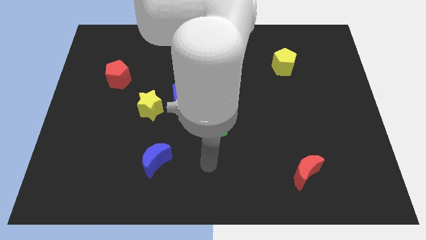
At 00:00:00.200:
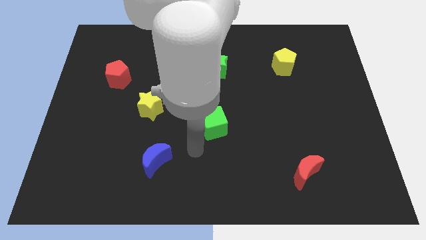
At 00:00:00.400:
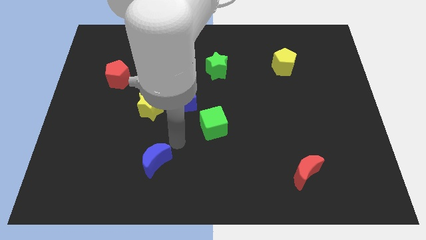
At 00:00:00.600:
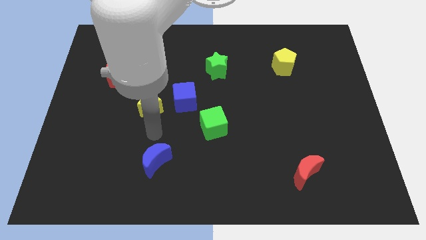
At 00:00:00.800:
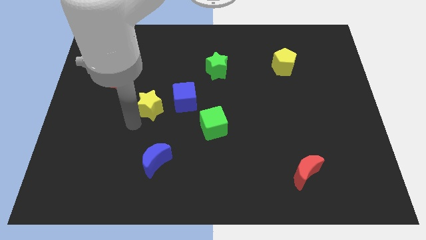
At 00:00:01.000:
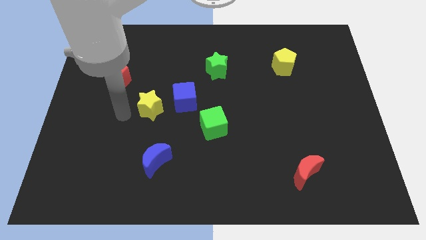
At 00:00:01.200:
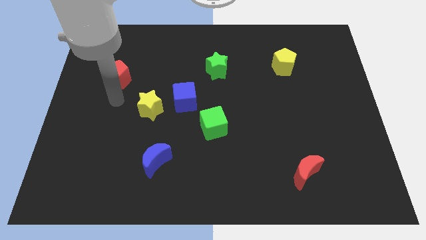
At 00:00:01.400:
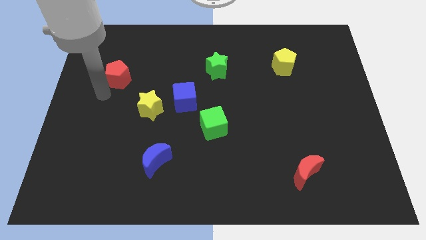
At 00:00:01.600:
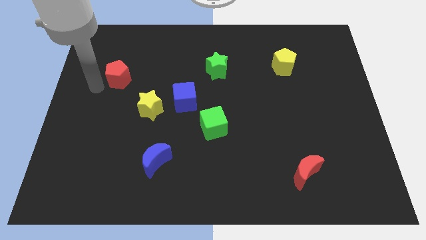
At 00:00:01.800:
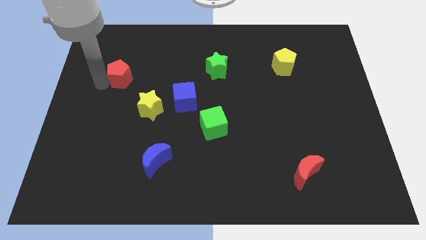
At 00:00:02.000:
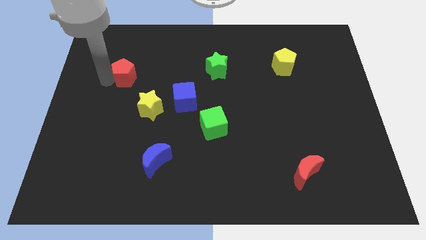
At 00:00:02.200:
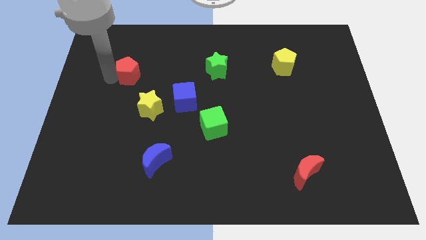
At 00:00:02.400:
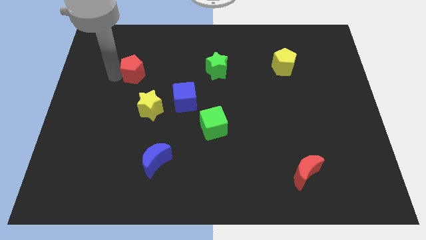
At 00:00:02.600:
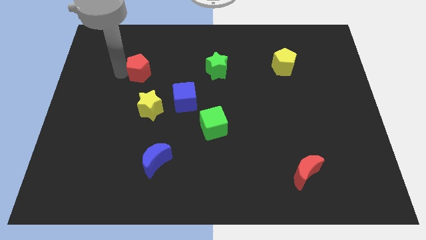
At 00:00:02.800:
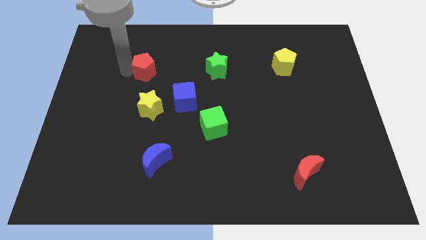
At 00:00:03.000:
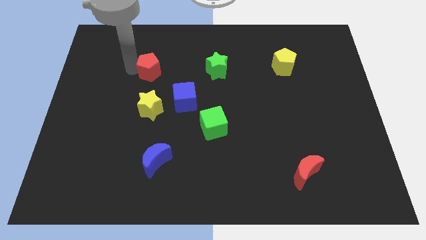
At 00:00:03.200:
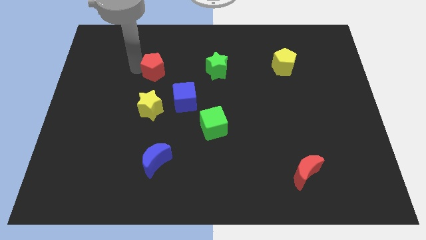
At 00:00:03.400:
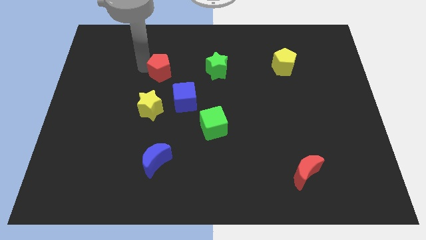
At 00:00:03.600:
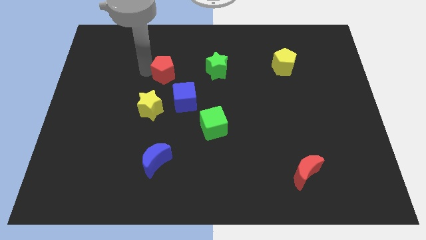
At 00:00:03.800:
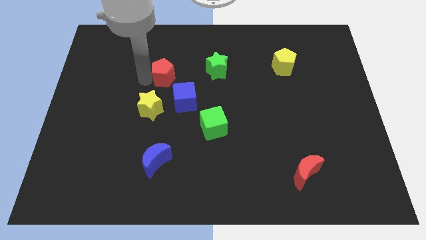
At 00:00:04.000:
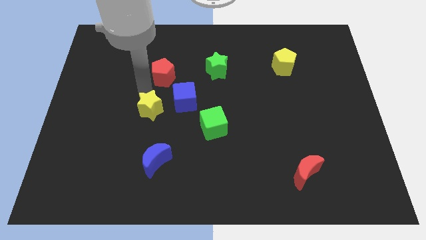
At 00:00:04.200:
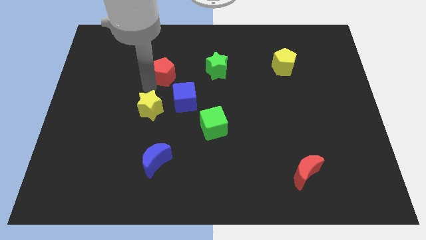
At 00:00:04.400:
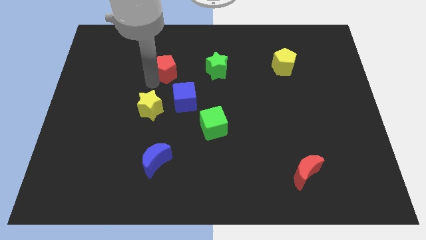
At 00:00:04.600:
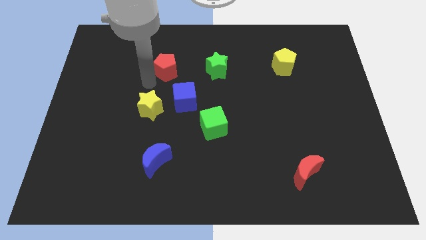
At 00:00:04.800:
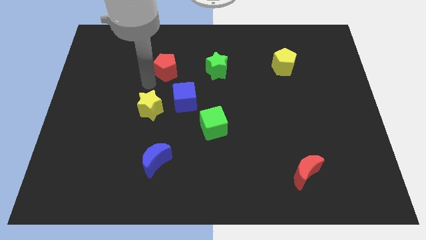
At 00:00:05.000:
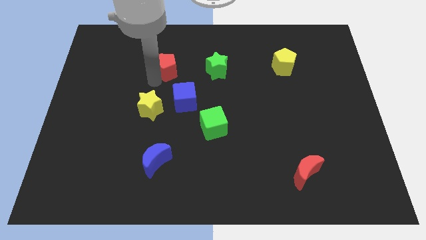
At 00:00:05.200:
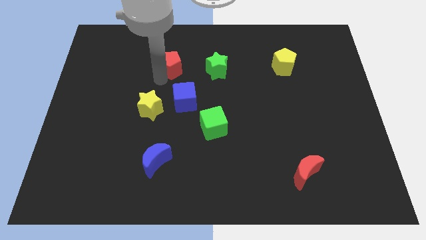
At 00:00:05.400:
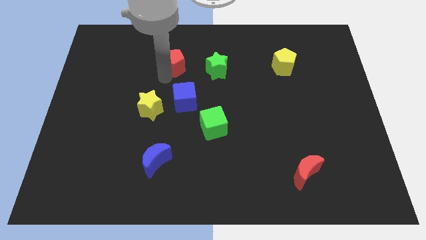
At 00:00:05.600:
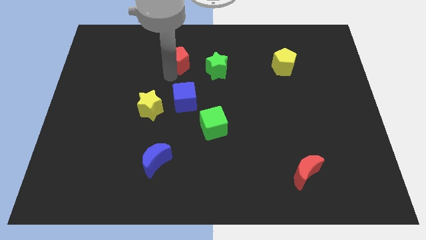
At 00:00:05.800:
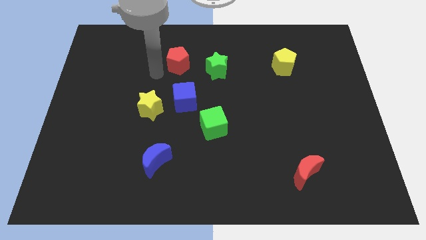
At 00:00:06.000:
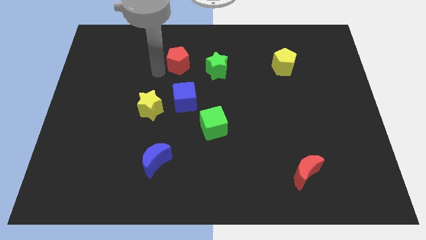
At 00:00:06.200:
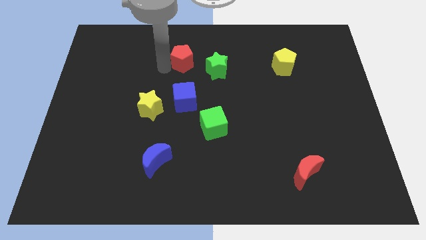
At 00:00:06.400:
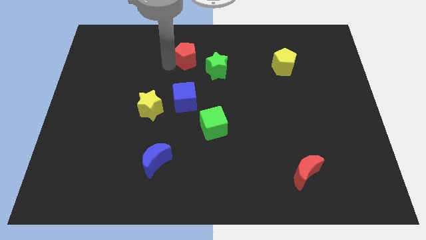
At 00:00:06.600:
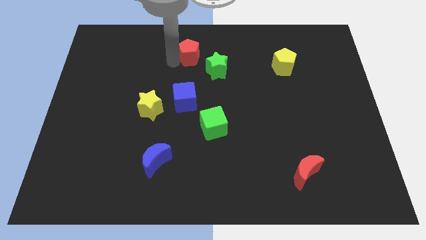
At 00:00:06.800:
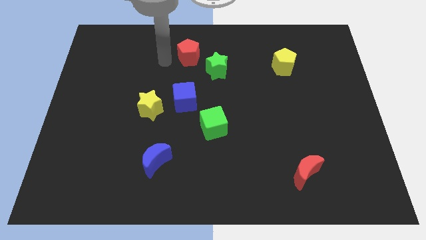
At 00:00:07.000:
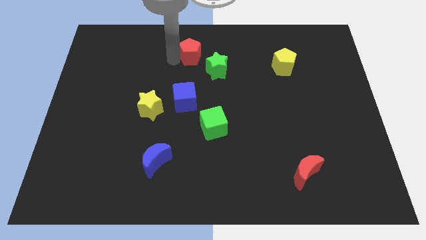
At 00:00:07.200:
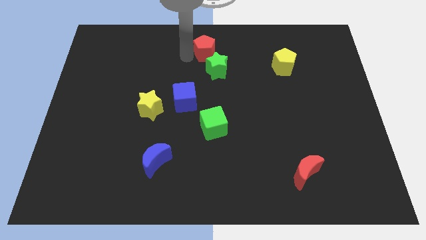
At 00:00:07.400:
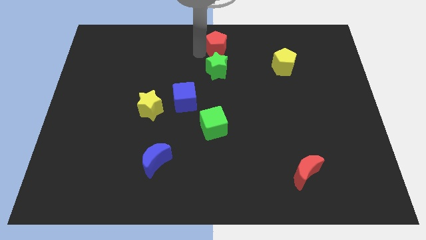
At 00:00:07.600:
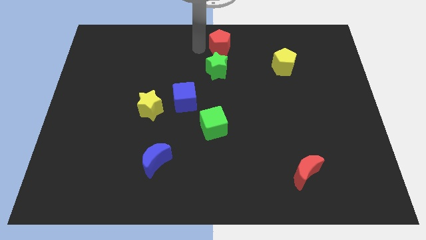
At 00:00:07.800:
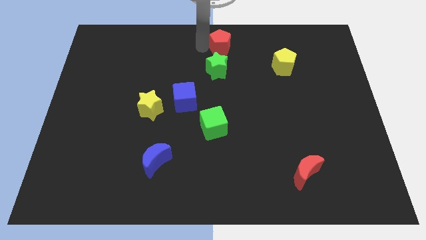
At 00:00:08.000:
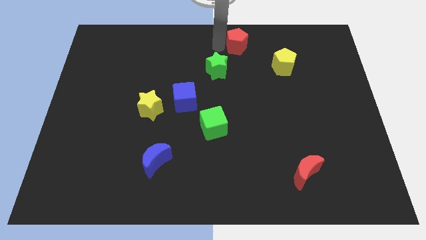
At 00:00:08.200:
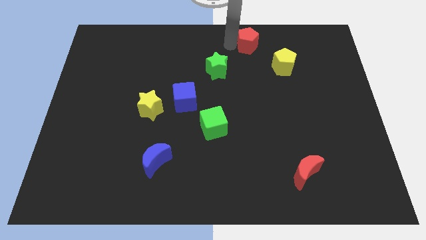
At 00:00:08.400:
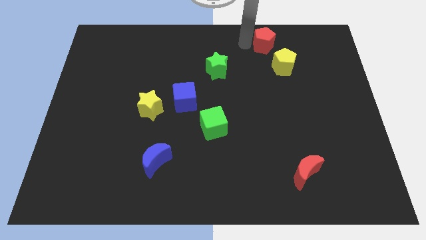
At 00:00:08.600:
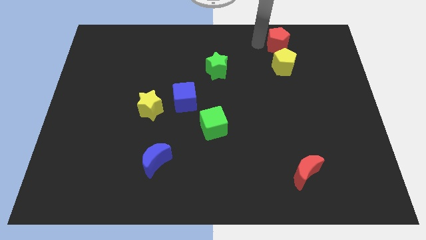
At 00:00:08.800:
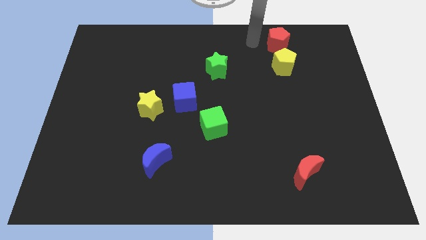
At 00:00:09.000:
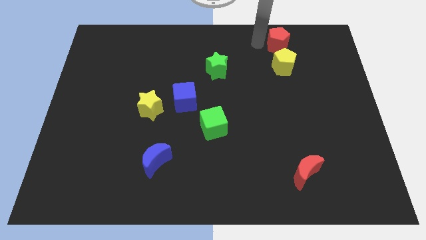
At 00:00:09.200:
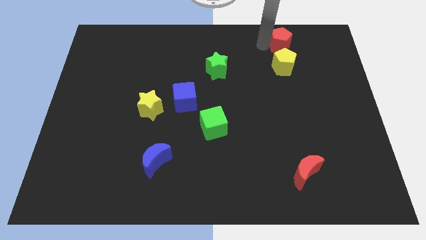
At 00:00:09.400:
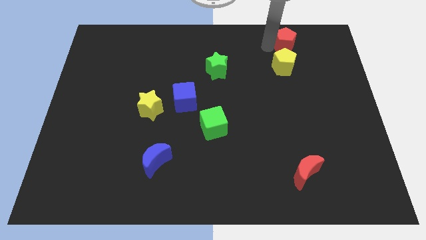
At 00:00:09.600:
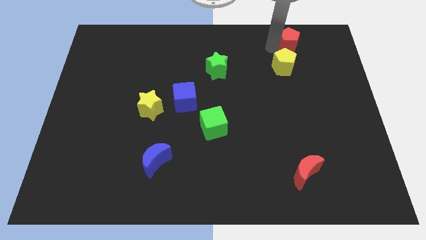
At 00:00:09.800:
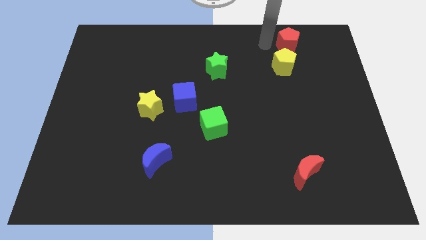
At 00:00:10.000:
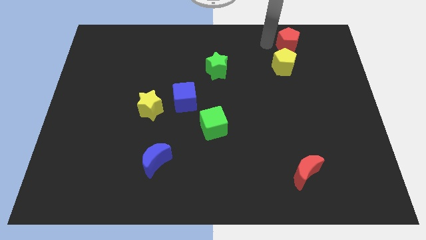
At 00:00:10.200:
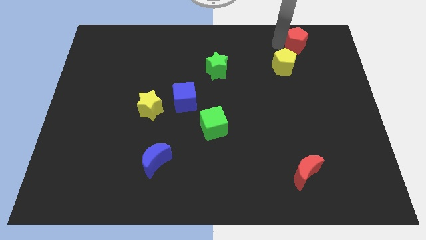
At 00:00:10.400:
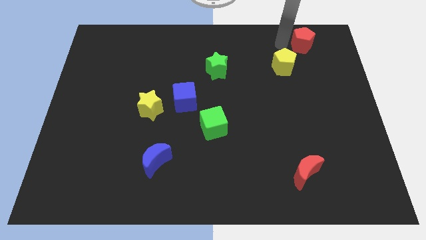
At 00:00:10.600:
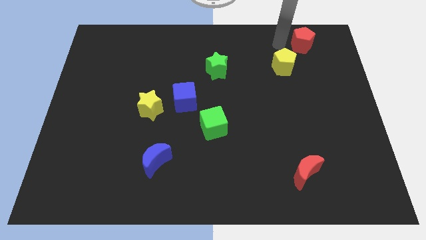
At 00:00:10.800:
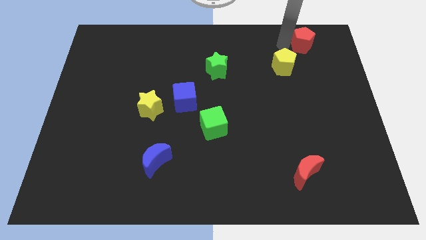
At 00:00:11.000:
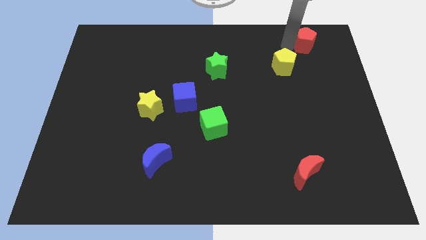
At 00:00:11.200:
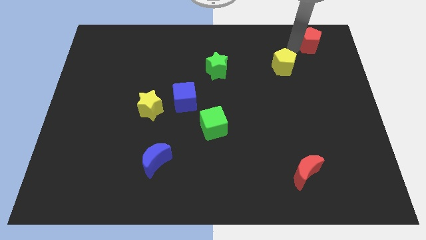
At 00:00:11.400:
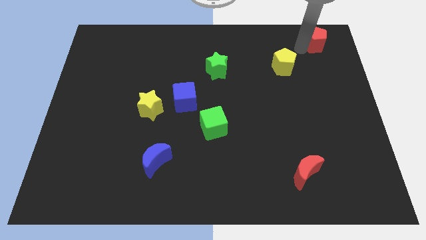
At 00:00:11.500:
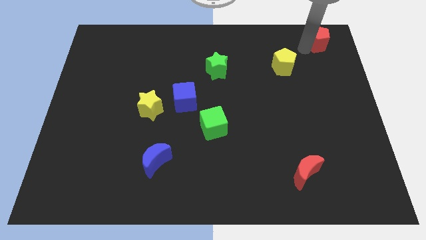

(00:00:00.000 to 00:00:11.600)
push the red pentagon to the upper right corner

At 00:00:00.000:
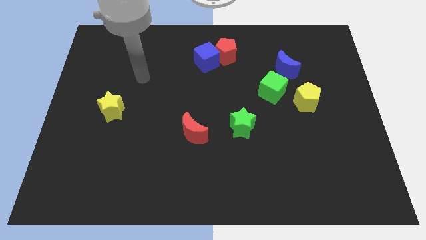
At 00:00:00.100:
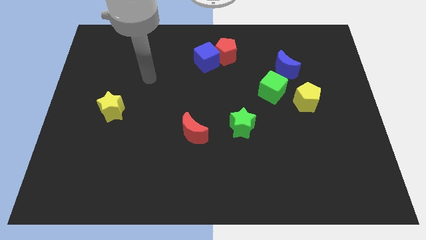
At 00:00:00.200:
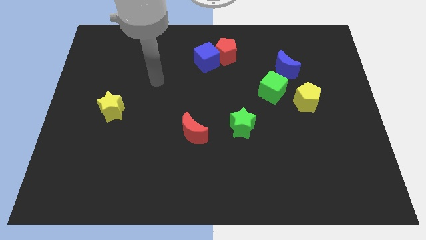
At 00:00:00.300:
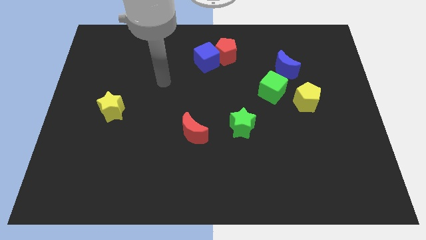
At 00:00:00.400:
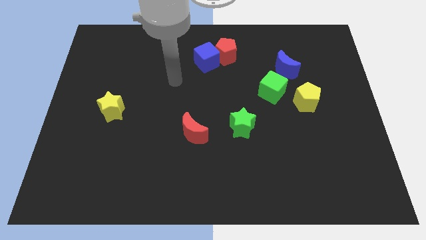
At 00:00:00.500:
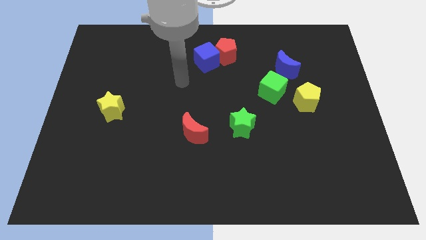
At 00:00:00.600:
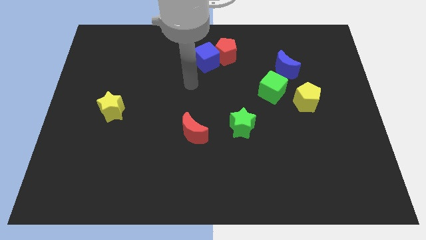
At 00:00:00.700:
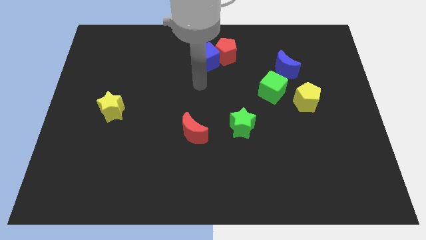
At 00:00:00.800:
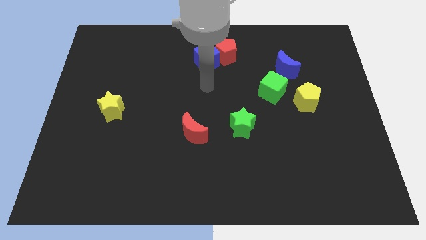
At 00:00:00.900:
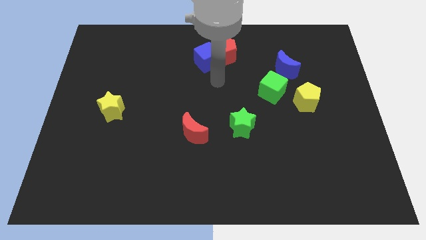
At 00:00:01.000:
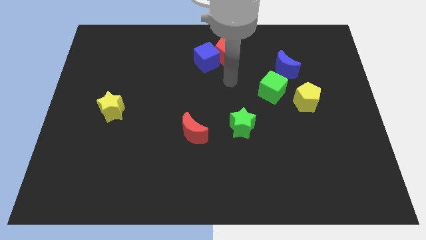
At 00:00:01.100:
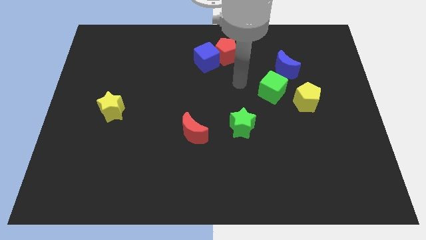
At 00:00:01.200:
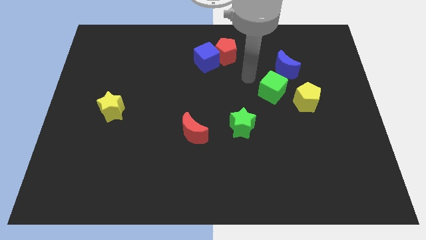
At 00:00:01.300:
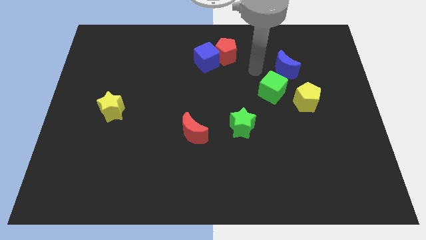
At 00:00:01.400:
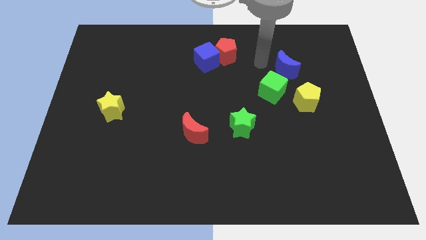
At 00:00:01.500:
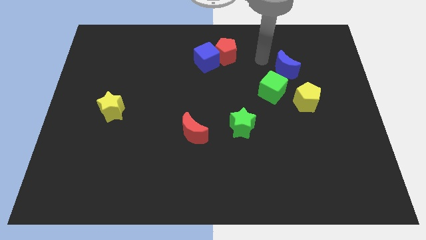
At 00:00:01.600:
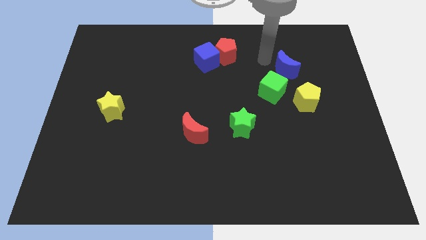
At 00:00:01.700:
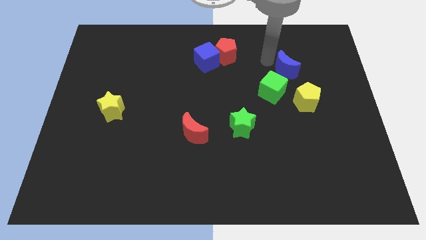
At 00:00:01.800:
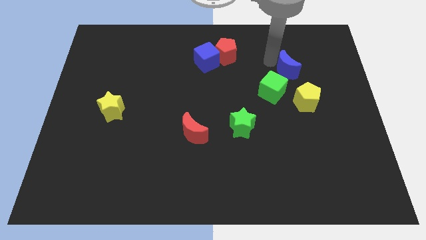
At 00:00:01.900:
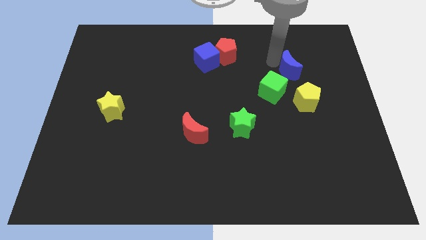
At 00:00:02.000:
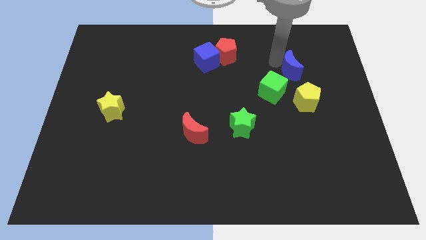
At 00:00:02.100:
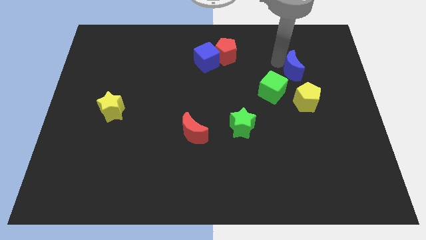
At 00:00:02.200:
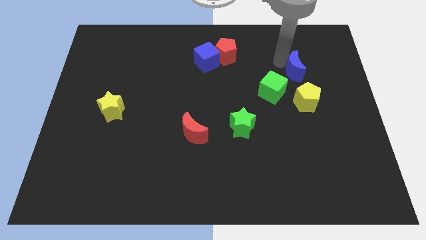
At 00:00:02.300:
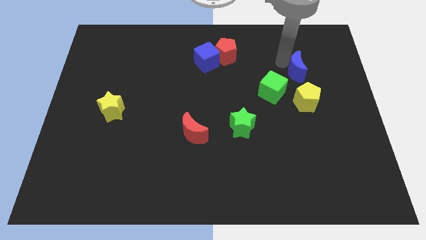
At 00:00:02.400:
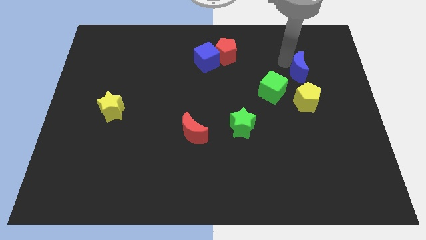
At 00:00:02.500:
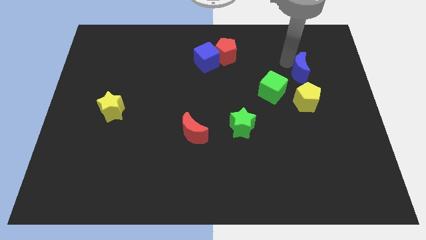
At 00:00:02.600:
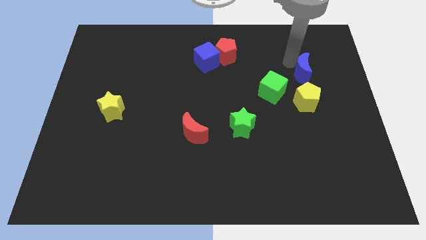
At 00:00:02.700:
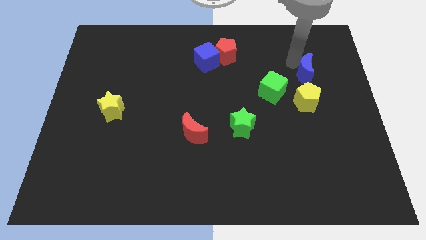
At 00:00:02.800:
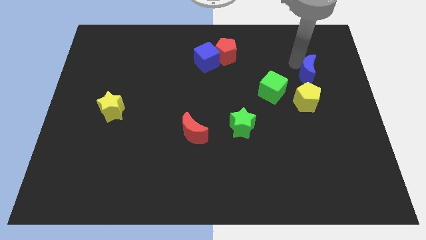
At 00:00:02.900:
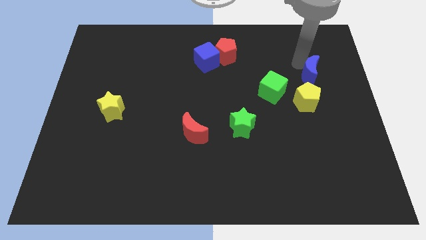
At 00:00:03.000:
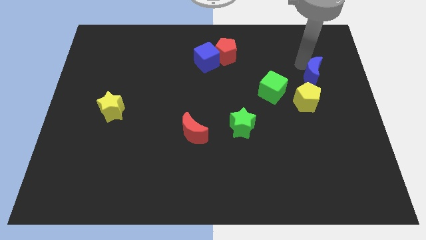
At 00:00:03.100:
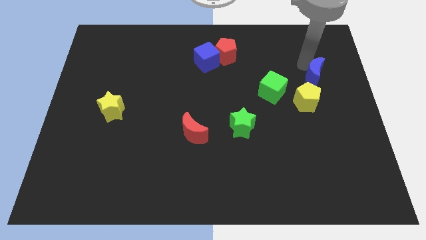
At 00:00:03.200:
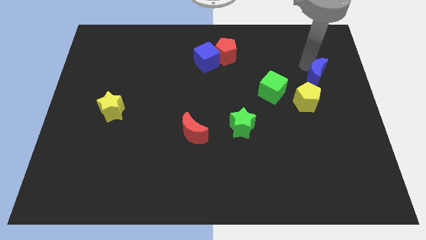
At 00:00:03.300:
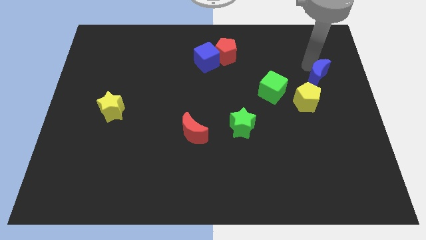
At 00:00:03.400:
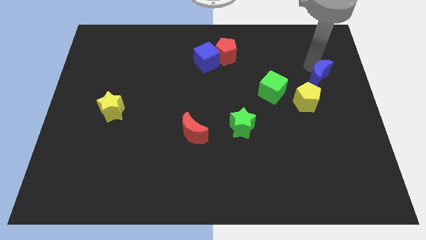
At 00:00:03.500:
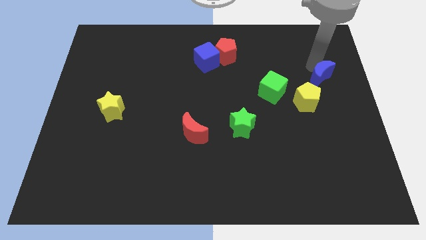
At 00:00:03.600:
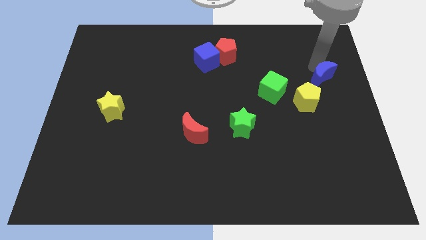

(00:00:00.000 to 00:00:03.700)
slide the blue moon to the right side of the board
